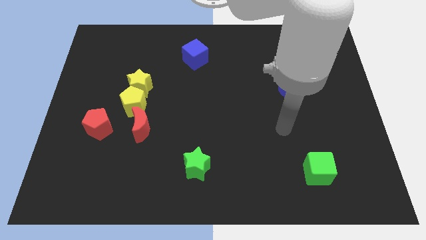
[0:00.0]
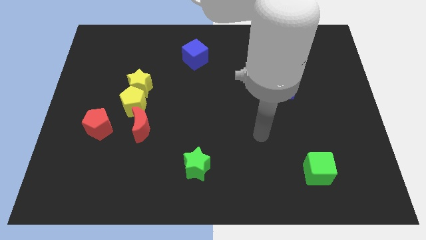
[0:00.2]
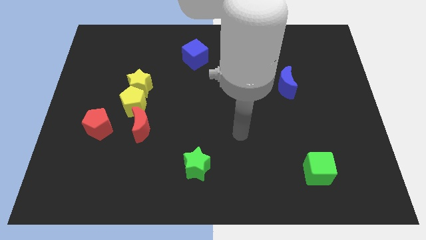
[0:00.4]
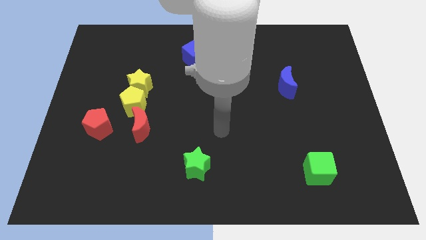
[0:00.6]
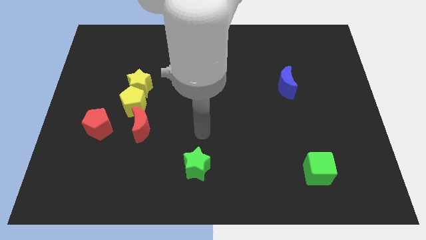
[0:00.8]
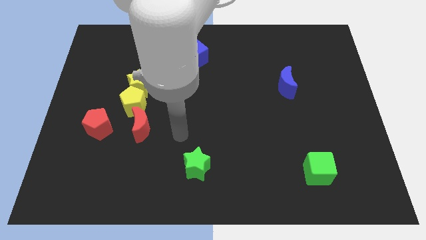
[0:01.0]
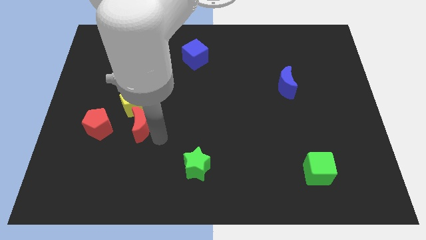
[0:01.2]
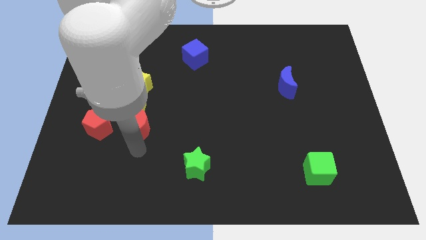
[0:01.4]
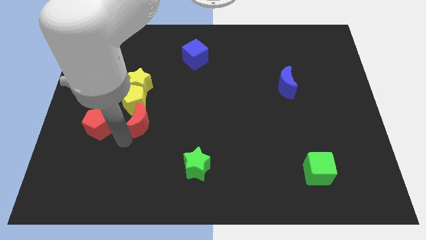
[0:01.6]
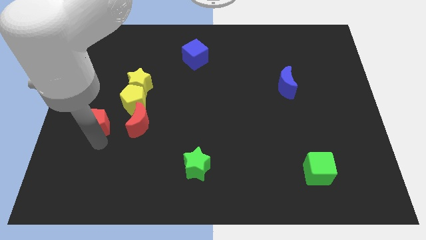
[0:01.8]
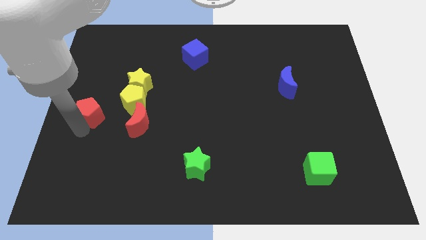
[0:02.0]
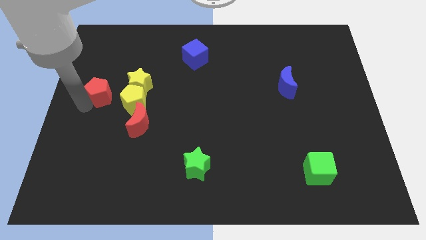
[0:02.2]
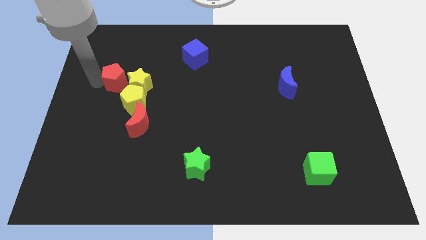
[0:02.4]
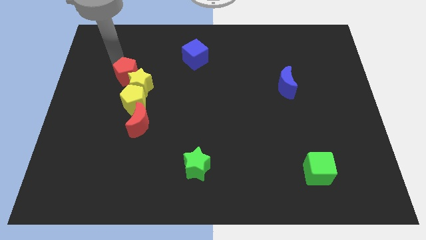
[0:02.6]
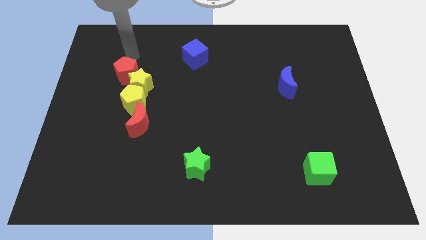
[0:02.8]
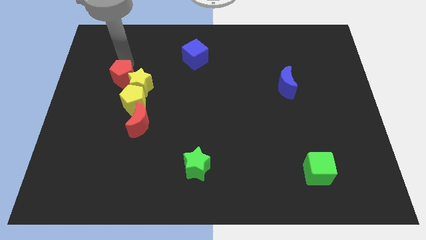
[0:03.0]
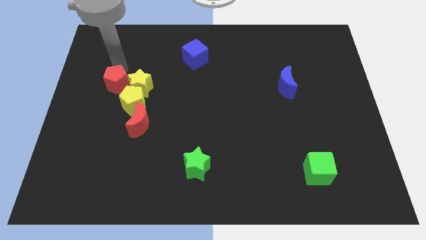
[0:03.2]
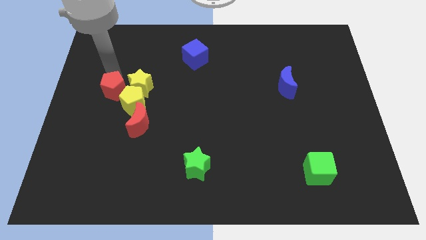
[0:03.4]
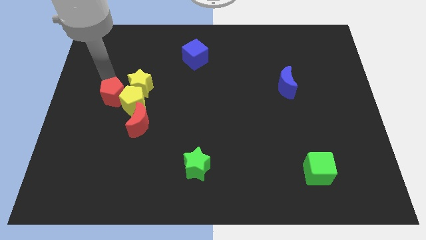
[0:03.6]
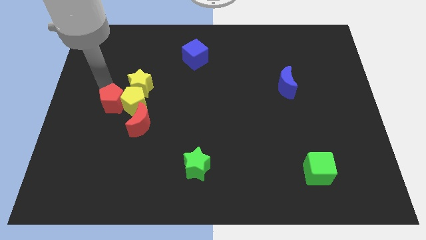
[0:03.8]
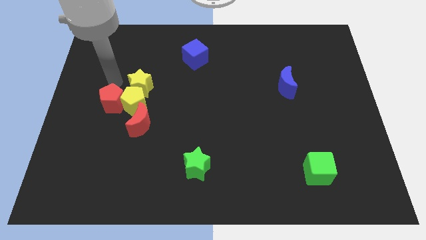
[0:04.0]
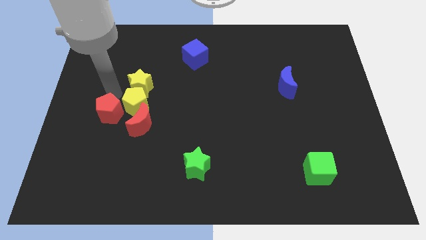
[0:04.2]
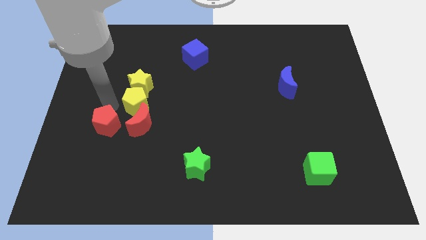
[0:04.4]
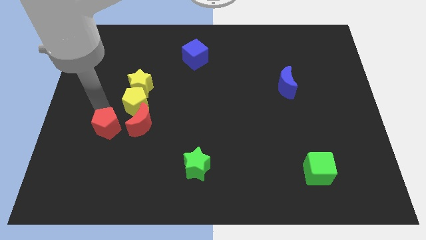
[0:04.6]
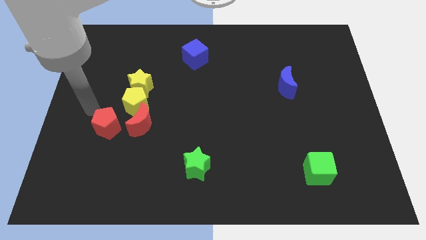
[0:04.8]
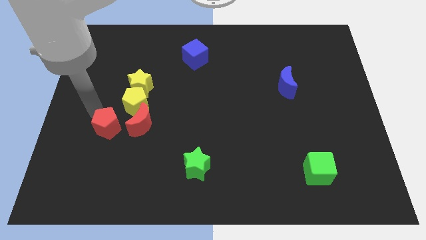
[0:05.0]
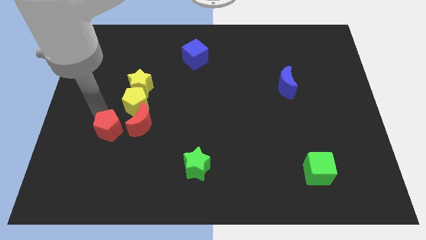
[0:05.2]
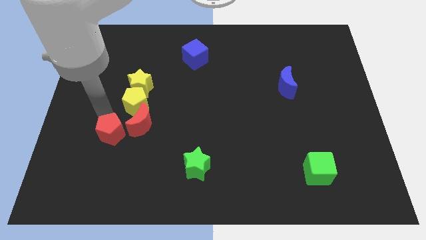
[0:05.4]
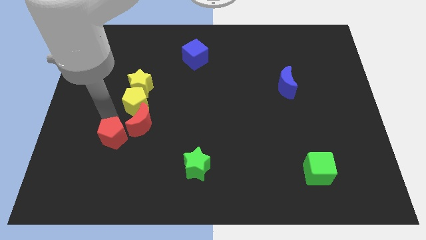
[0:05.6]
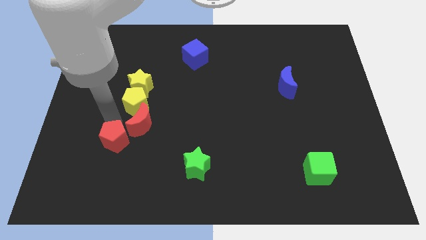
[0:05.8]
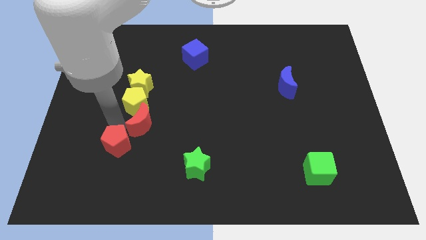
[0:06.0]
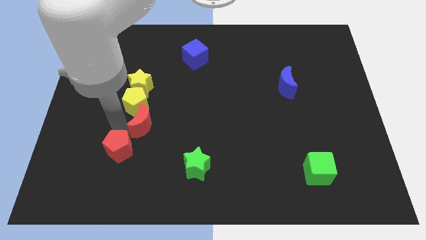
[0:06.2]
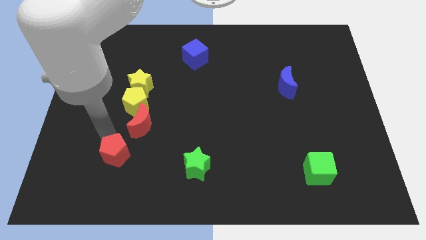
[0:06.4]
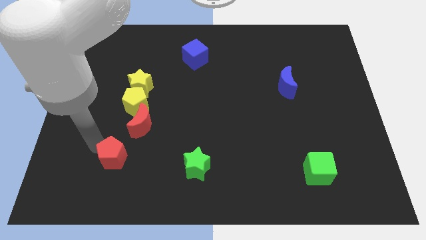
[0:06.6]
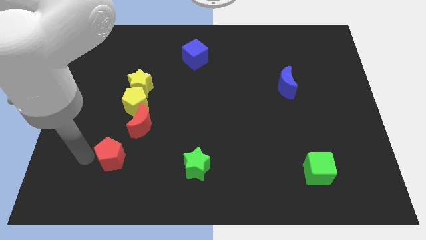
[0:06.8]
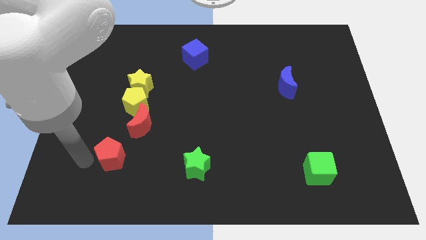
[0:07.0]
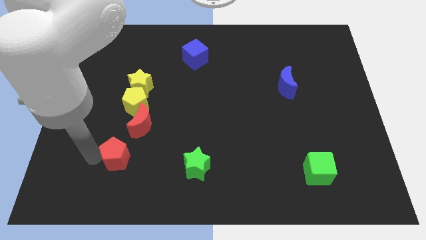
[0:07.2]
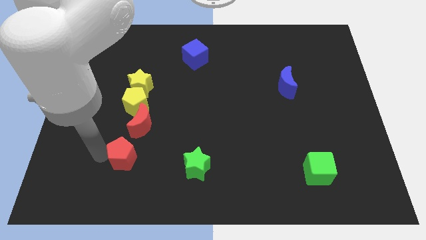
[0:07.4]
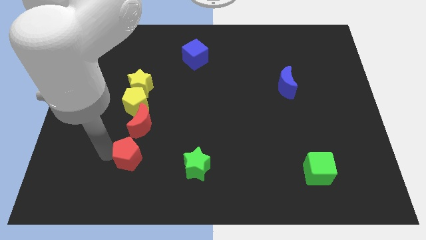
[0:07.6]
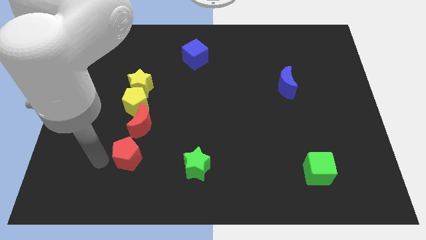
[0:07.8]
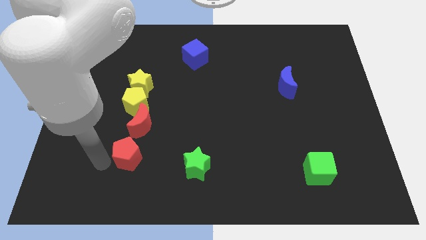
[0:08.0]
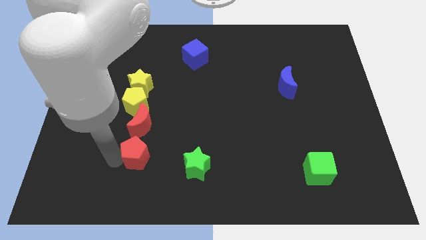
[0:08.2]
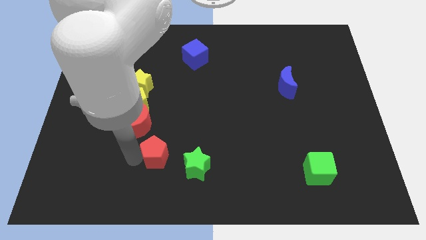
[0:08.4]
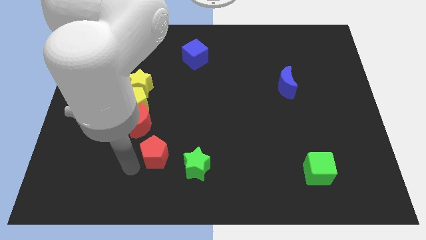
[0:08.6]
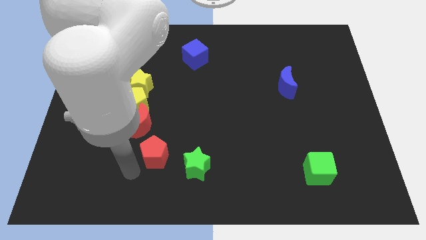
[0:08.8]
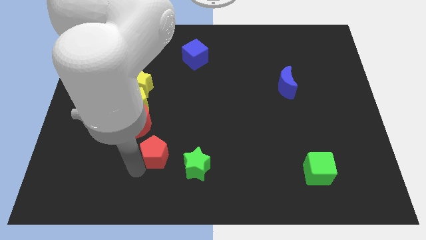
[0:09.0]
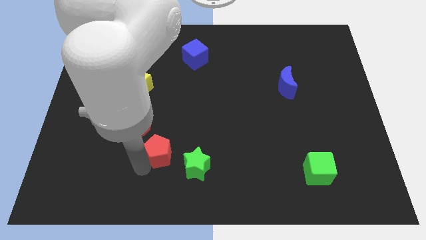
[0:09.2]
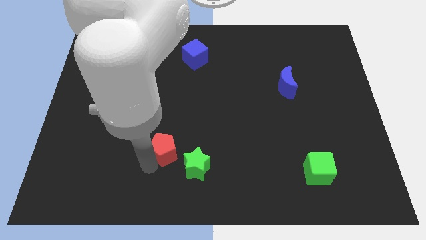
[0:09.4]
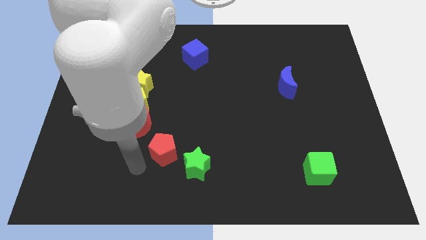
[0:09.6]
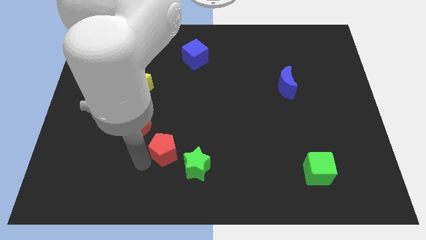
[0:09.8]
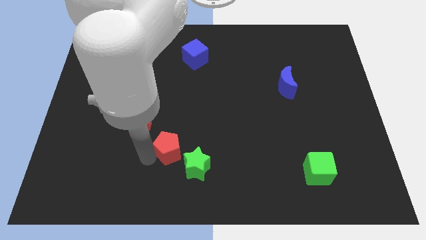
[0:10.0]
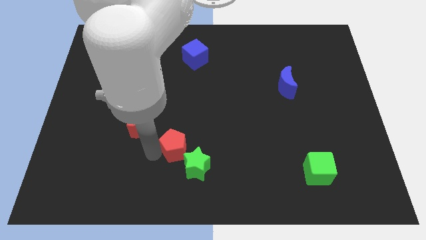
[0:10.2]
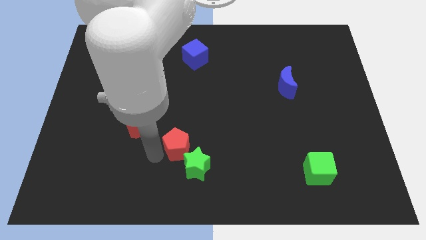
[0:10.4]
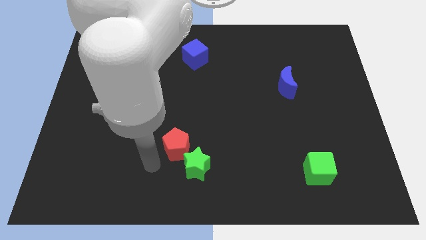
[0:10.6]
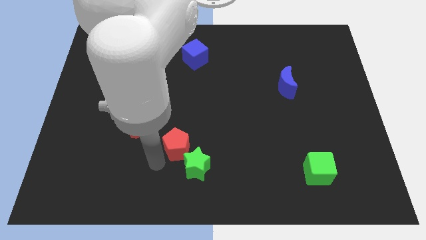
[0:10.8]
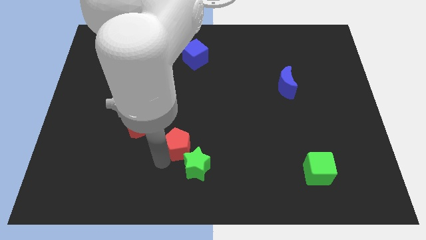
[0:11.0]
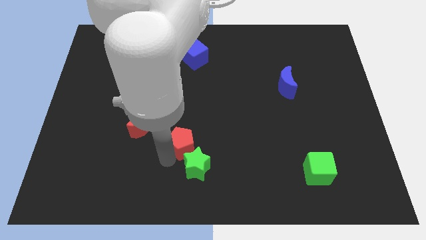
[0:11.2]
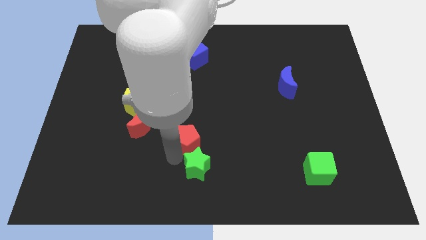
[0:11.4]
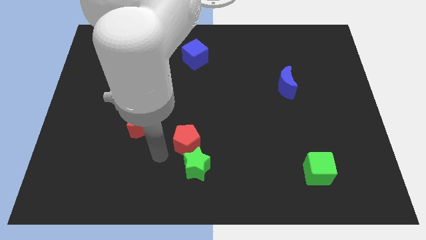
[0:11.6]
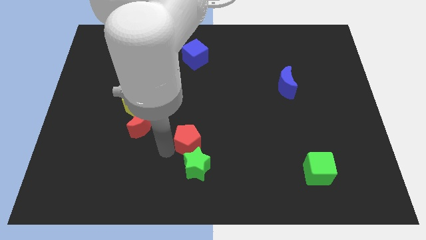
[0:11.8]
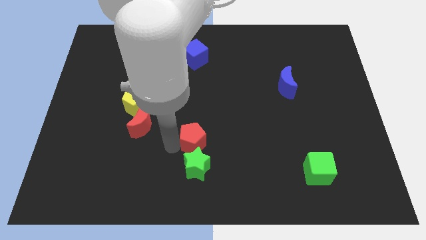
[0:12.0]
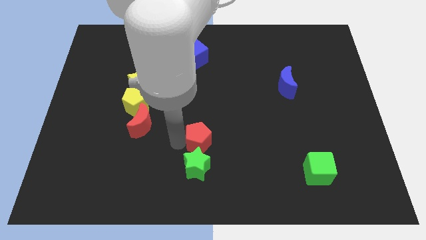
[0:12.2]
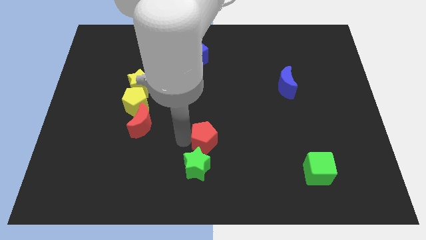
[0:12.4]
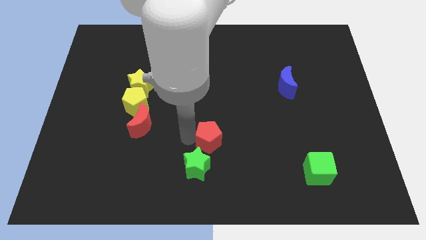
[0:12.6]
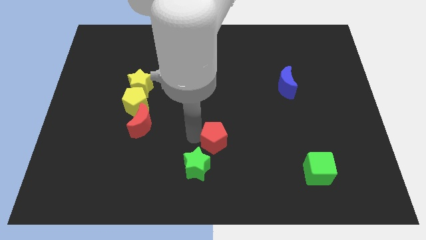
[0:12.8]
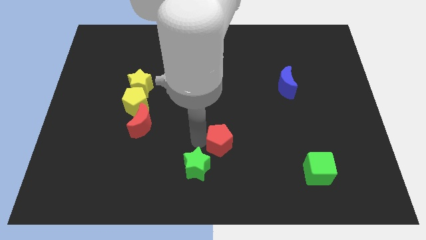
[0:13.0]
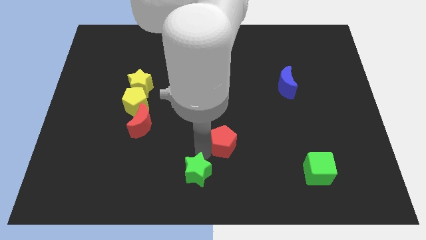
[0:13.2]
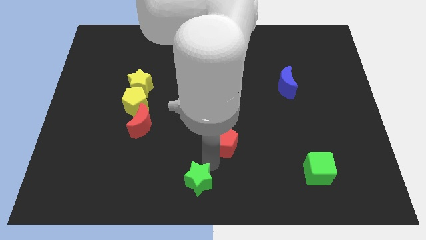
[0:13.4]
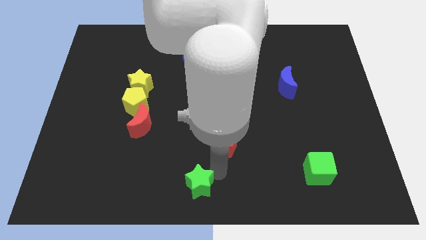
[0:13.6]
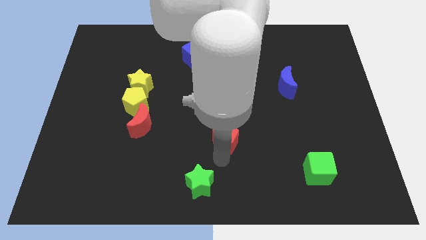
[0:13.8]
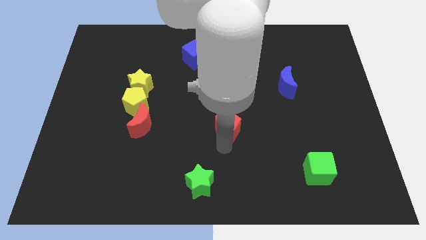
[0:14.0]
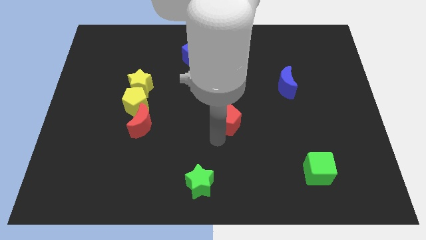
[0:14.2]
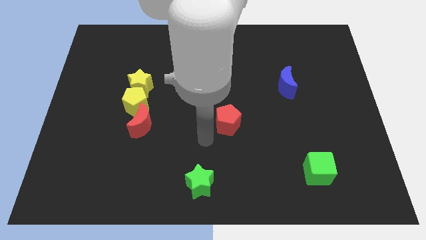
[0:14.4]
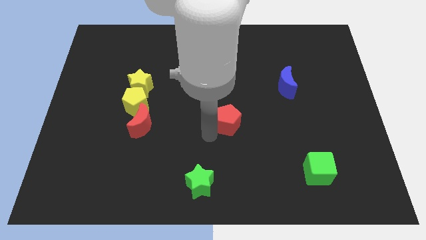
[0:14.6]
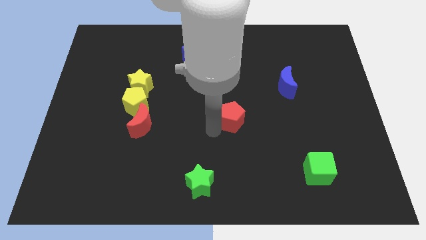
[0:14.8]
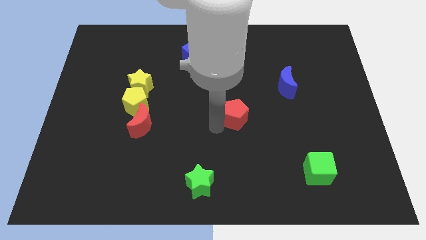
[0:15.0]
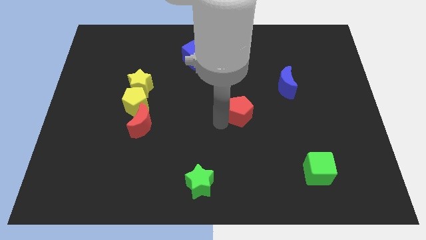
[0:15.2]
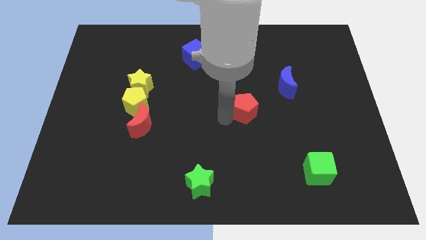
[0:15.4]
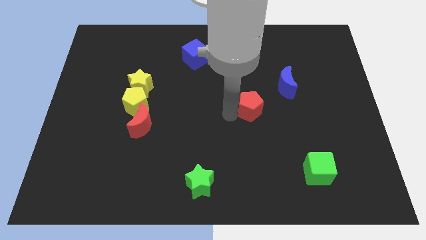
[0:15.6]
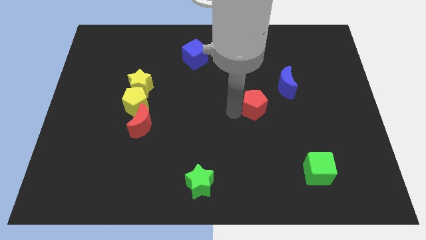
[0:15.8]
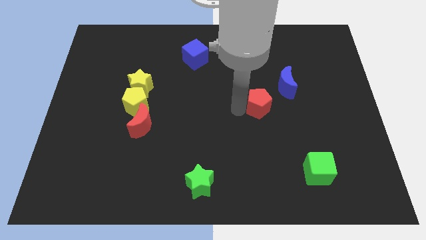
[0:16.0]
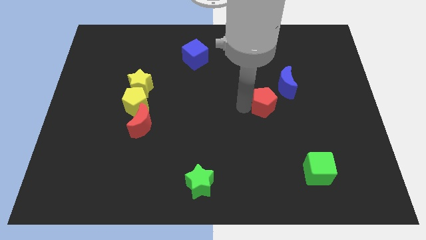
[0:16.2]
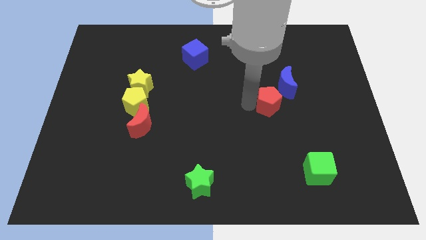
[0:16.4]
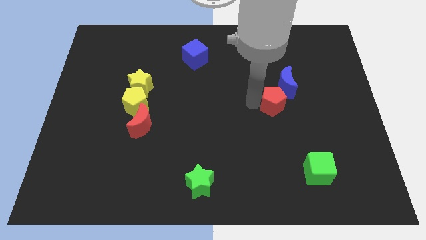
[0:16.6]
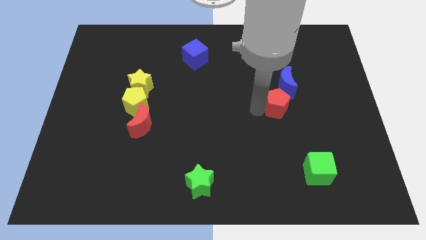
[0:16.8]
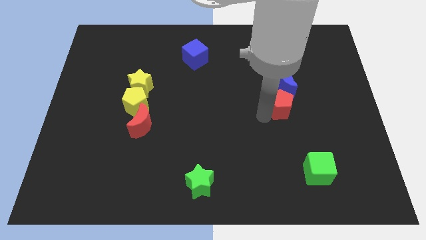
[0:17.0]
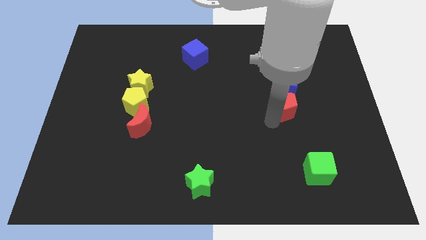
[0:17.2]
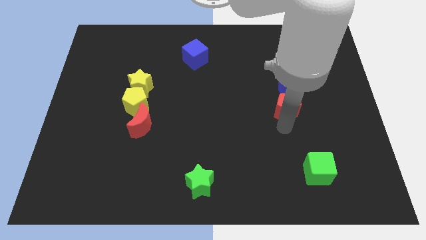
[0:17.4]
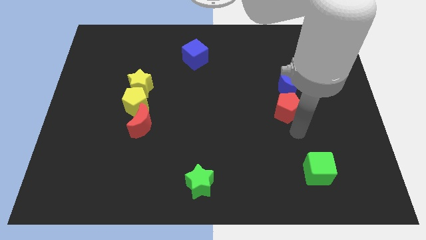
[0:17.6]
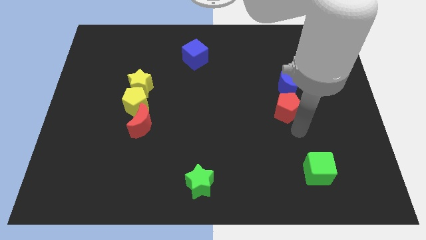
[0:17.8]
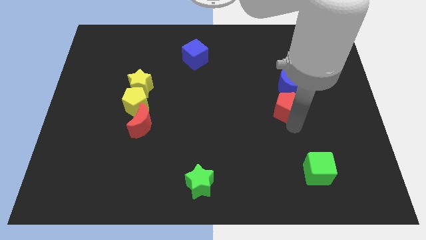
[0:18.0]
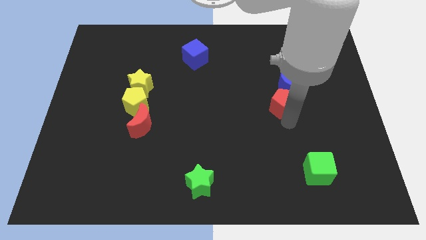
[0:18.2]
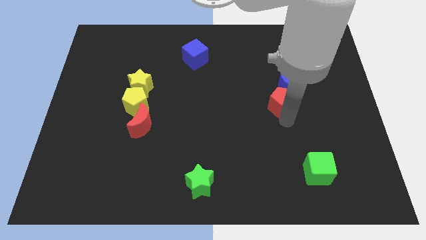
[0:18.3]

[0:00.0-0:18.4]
slide the red pentagon next to the blue moon
